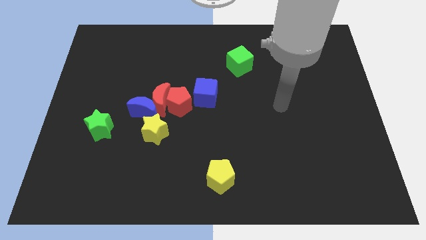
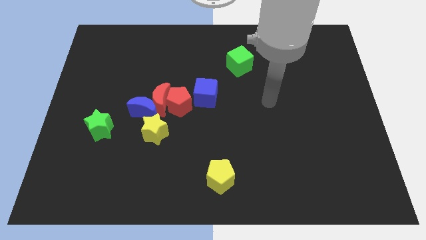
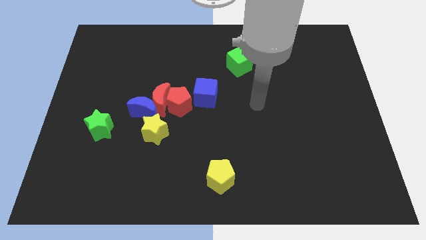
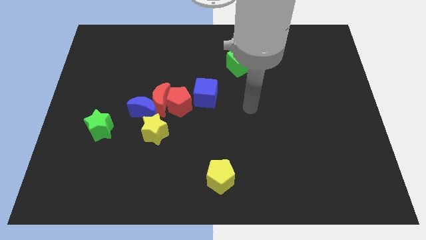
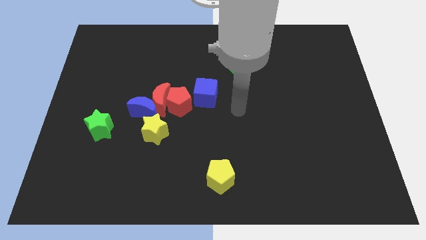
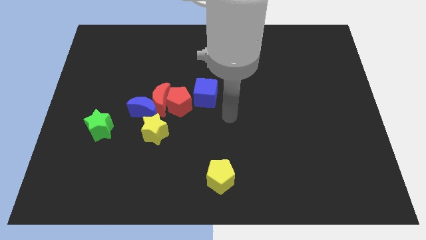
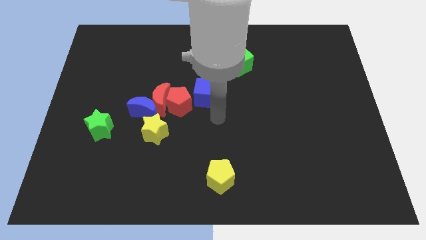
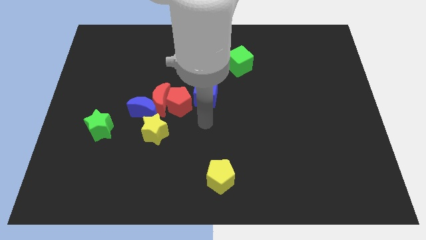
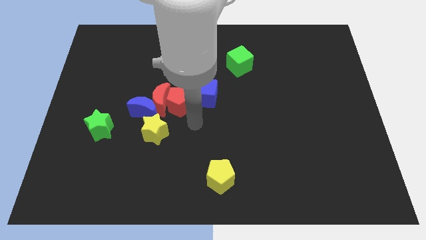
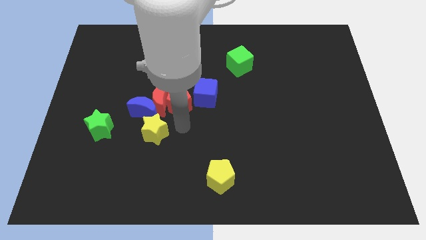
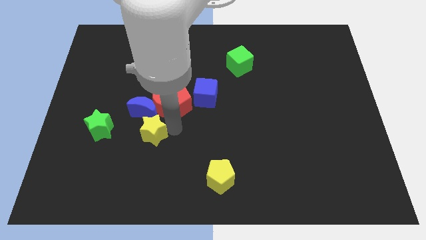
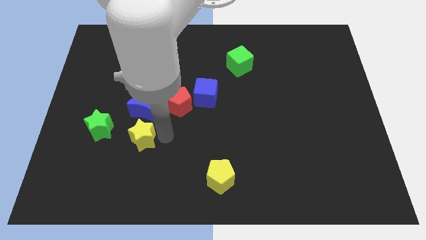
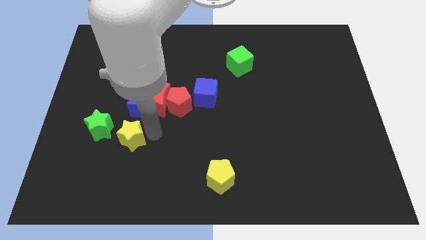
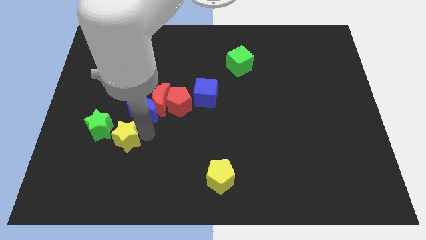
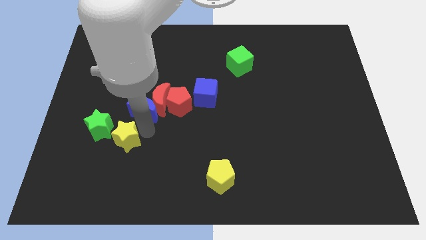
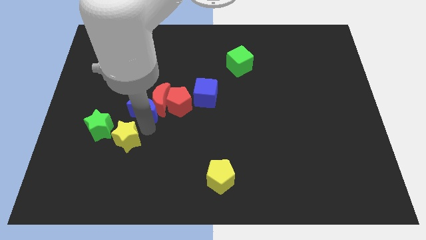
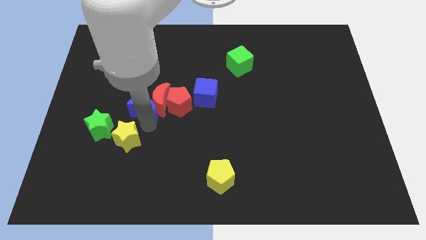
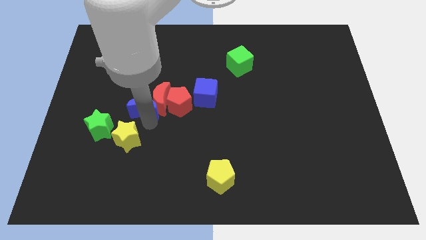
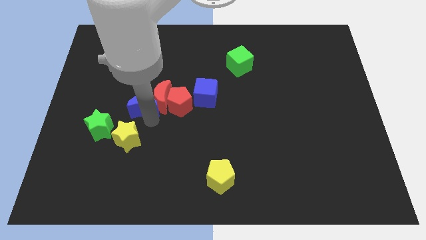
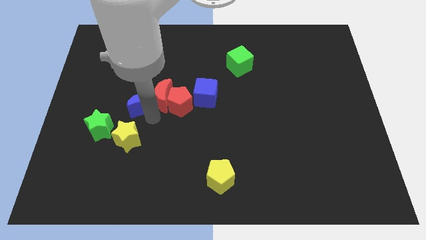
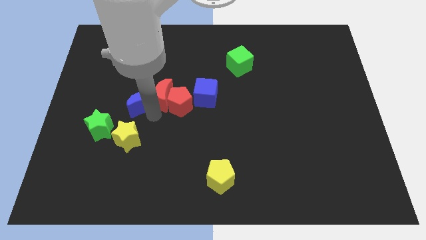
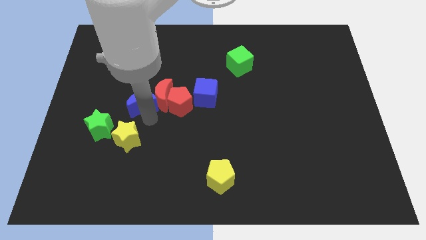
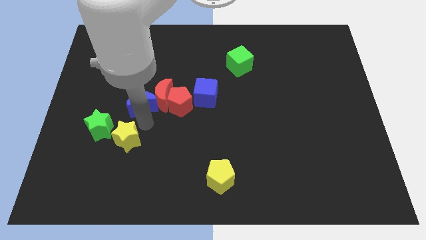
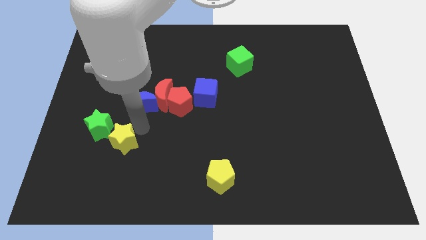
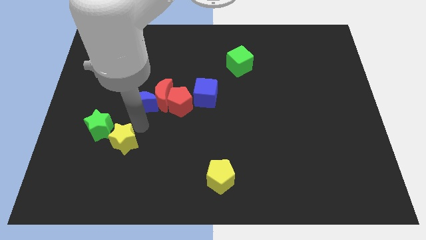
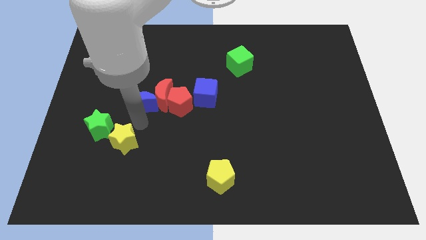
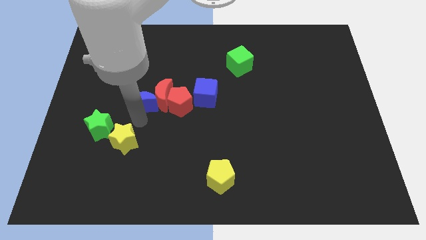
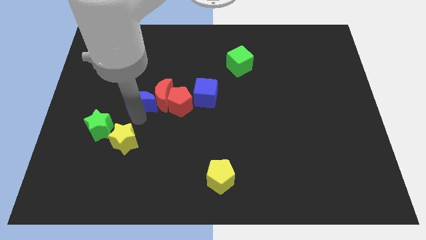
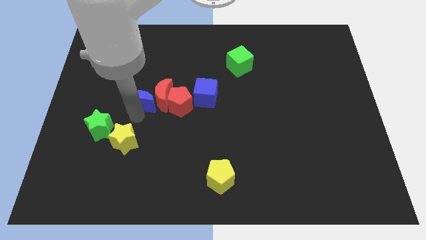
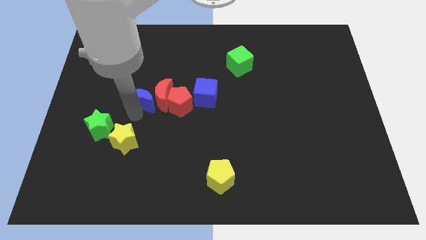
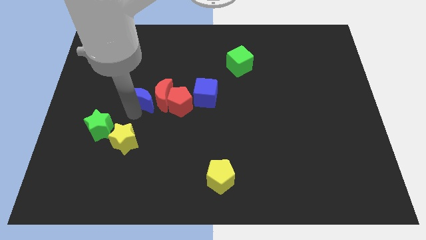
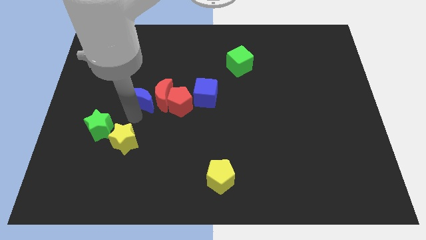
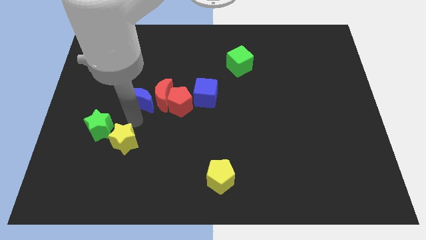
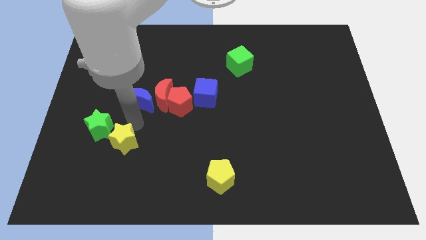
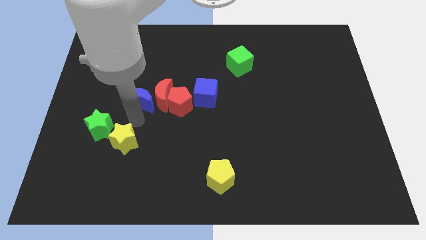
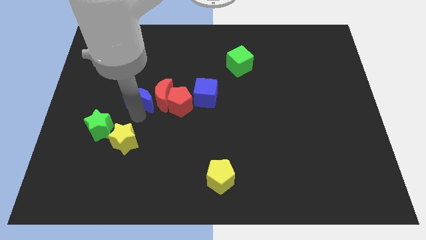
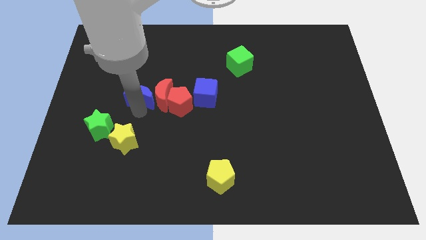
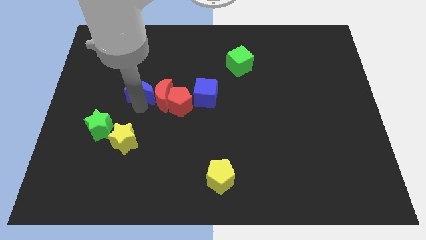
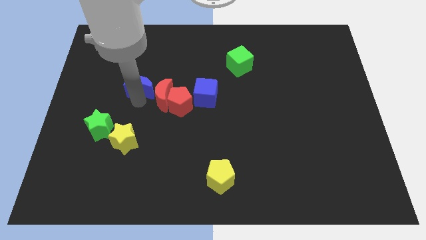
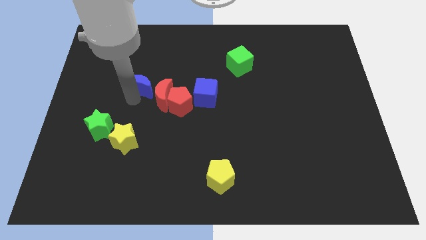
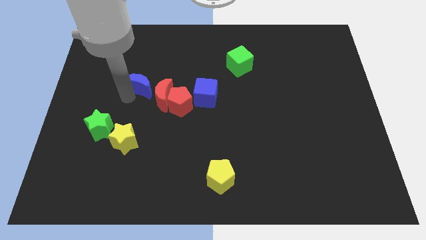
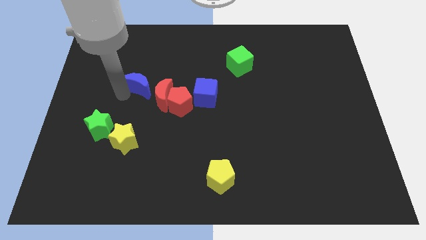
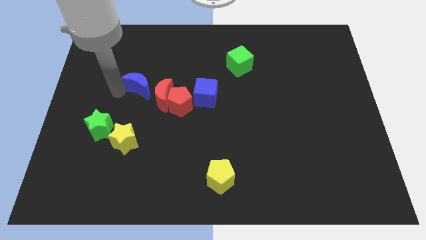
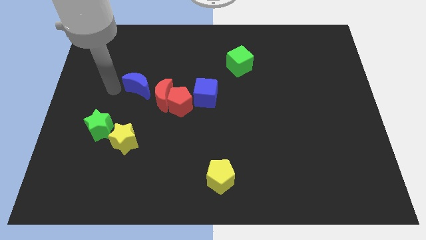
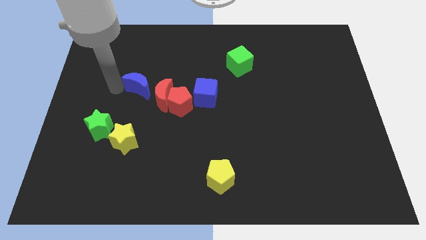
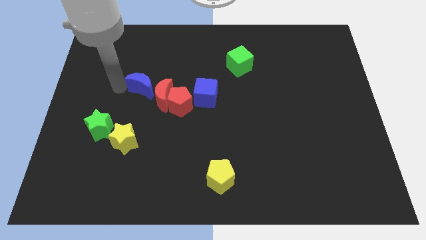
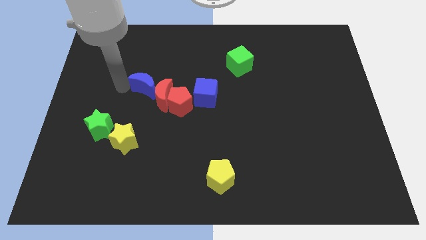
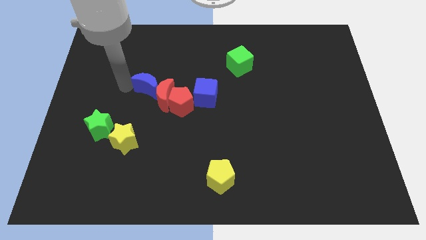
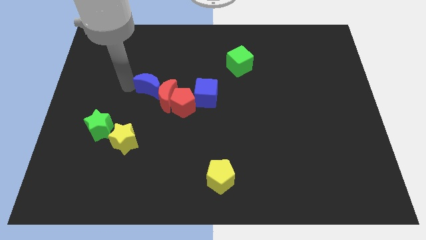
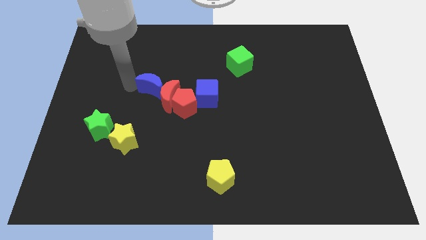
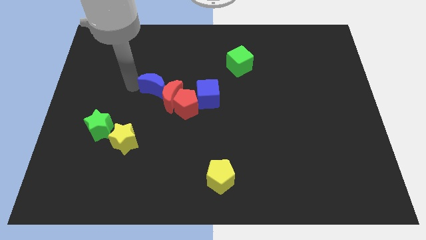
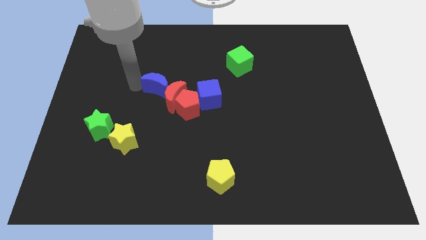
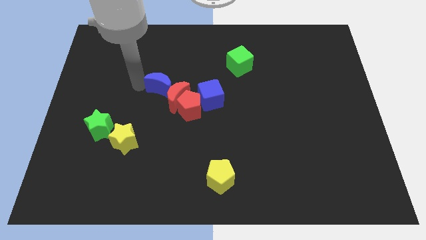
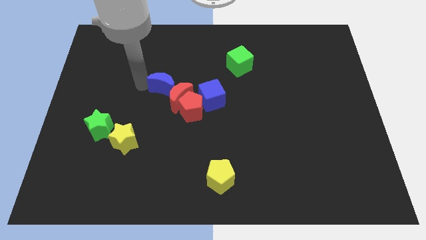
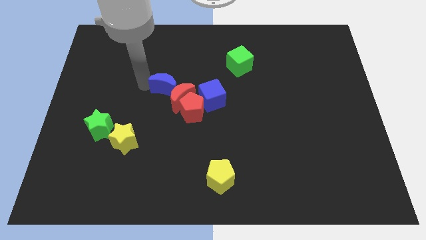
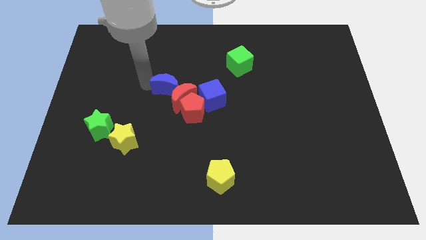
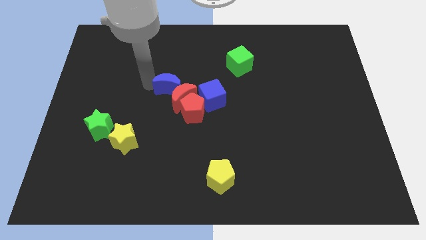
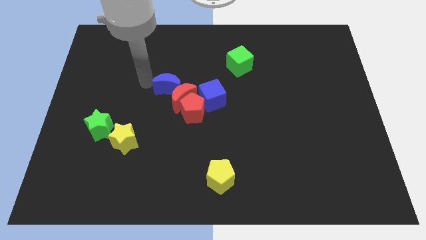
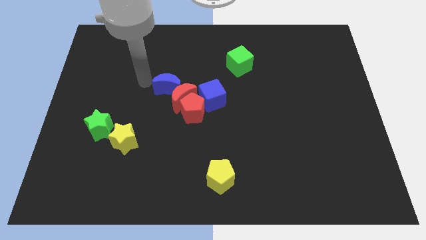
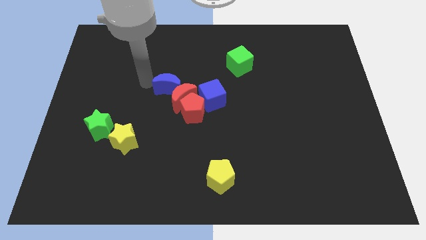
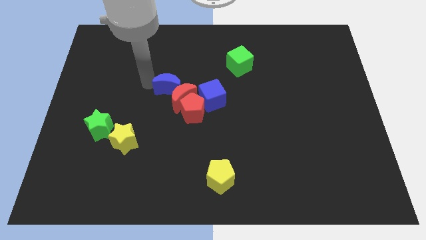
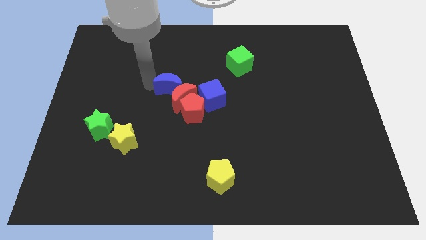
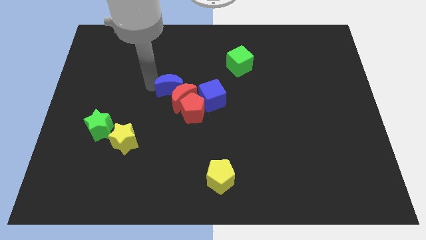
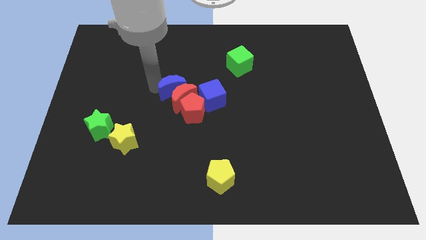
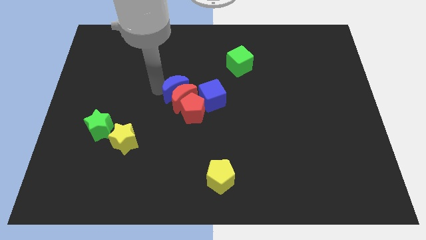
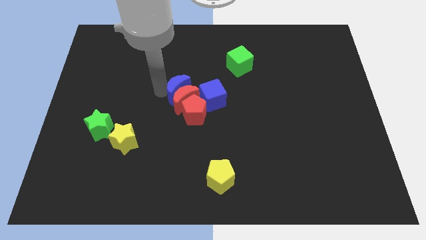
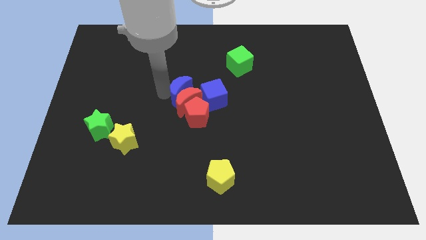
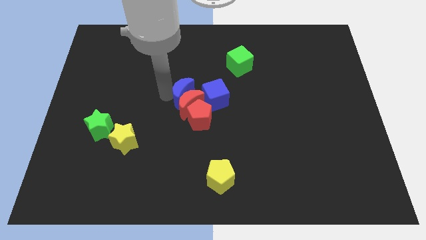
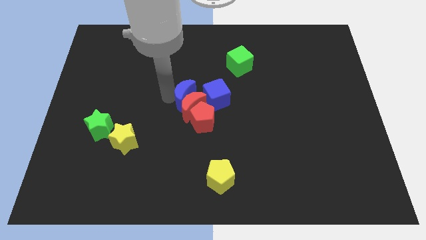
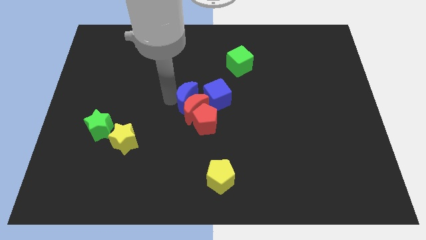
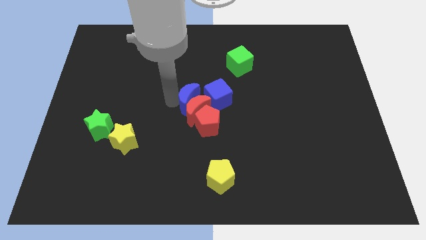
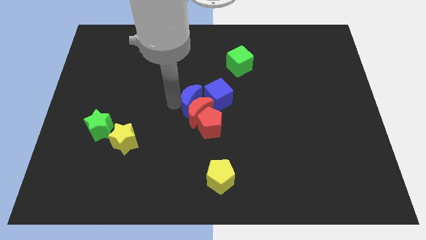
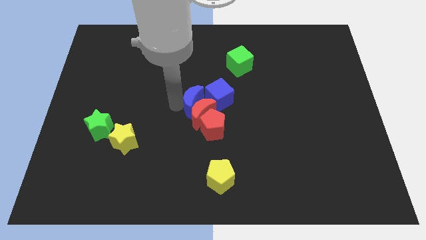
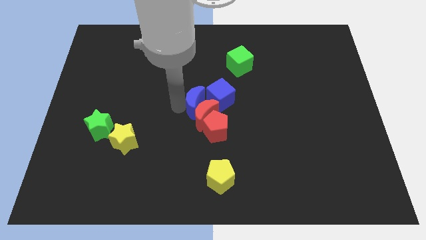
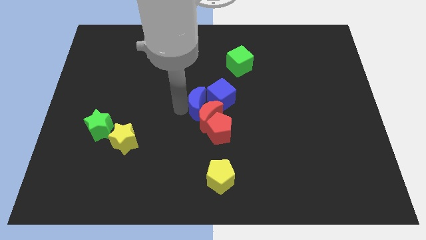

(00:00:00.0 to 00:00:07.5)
move the blue moon towards the blue cube
